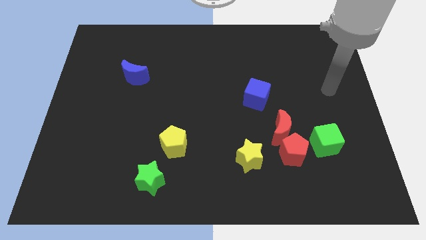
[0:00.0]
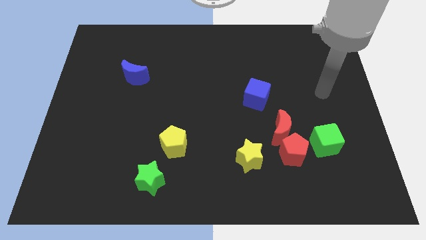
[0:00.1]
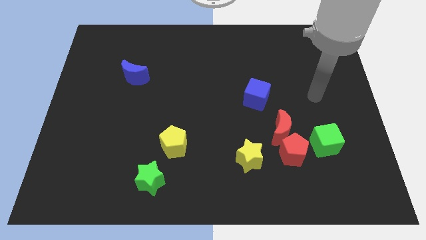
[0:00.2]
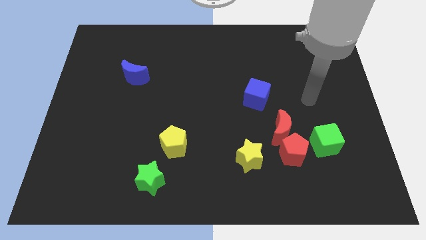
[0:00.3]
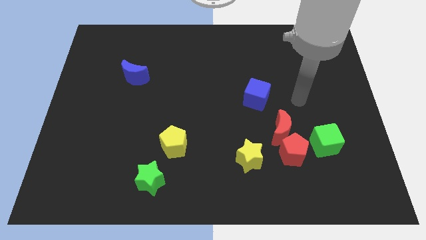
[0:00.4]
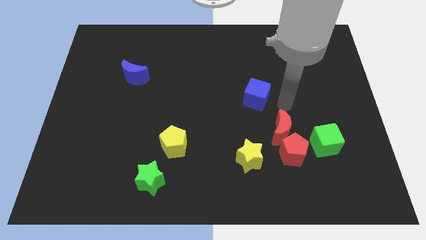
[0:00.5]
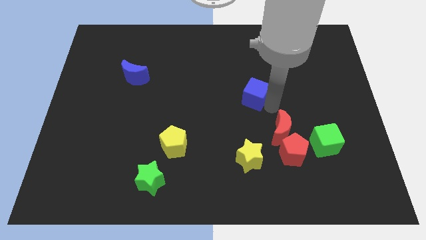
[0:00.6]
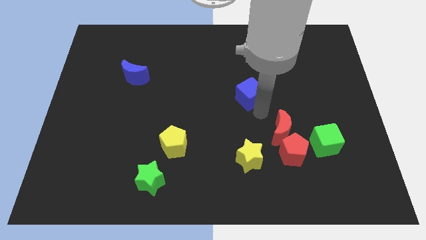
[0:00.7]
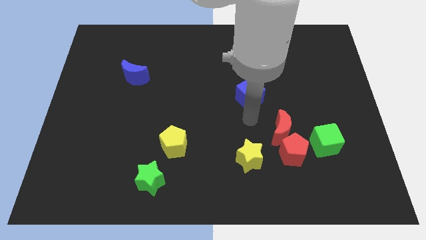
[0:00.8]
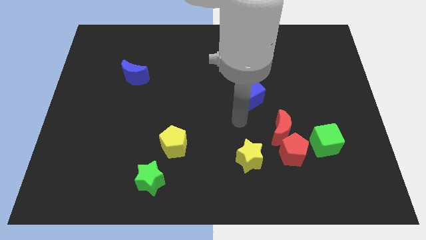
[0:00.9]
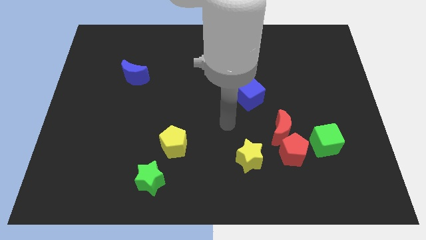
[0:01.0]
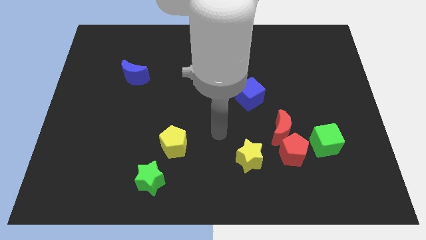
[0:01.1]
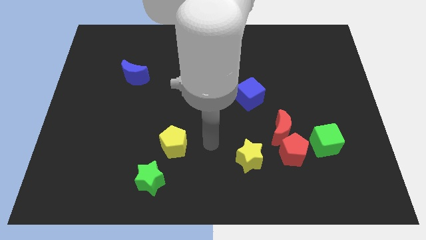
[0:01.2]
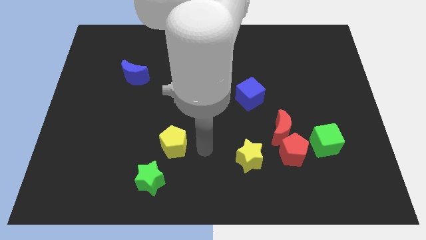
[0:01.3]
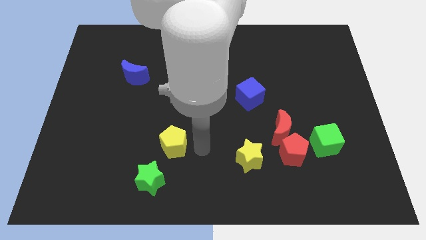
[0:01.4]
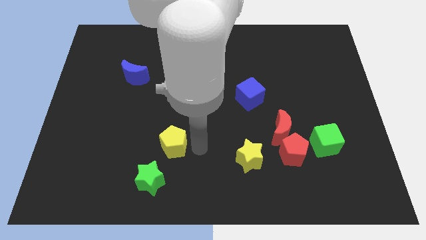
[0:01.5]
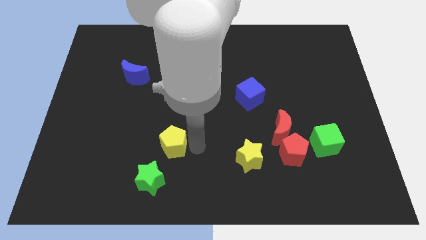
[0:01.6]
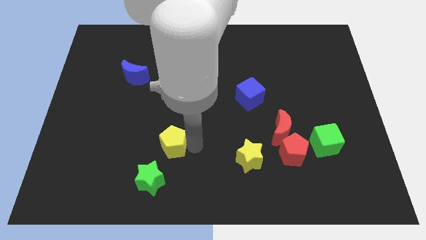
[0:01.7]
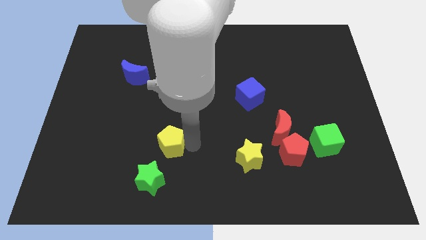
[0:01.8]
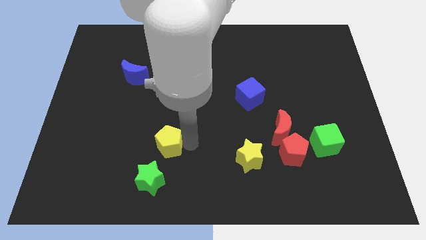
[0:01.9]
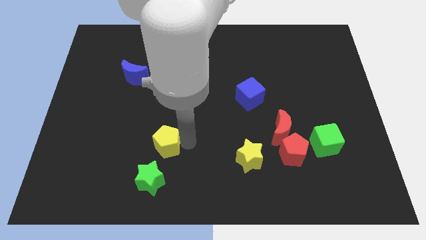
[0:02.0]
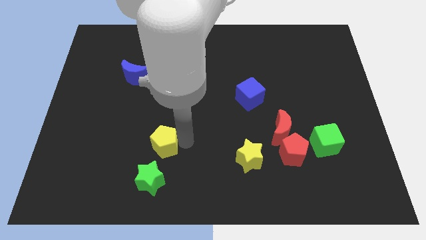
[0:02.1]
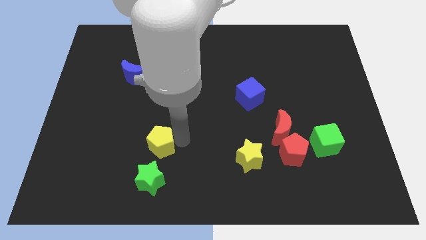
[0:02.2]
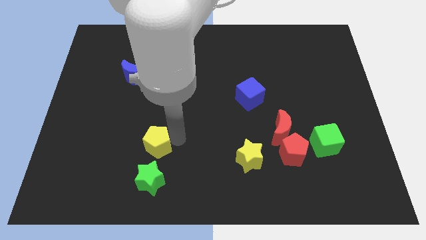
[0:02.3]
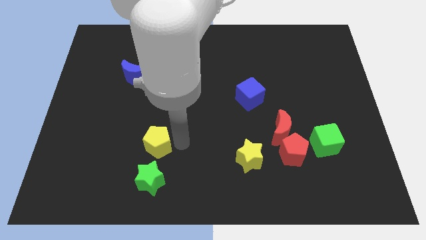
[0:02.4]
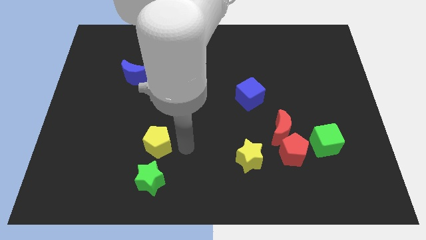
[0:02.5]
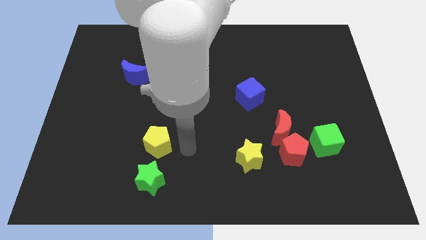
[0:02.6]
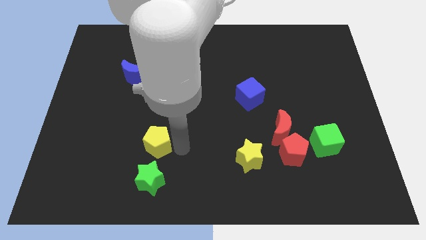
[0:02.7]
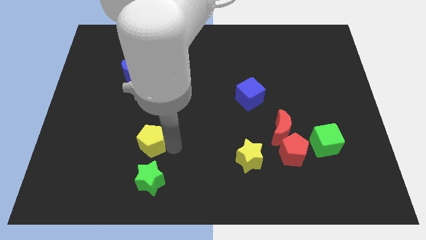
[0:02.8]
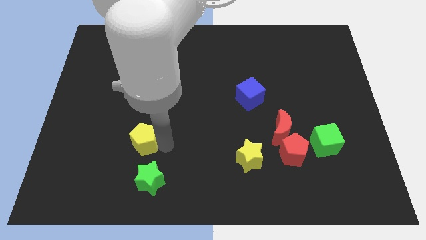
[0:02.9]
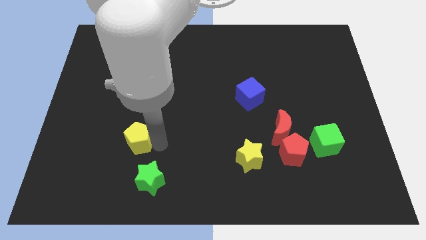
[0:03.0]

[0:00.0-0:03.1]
slide the yellow pentagon a little left

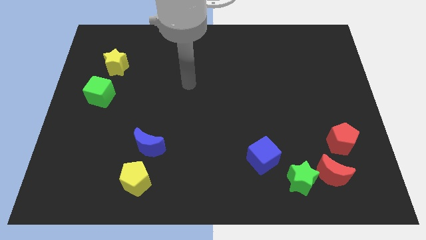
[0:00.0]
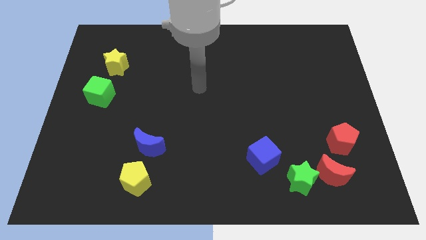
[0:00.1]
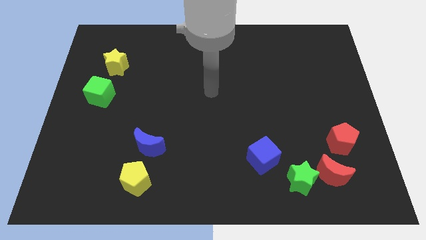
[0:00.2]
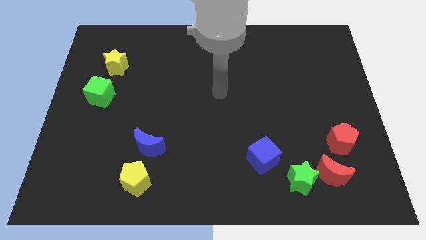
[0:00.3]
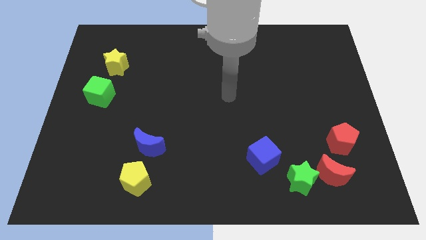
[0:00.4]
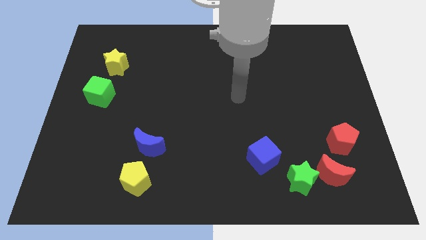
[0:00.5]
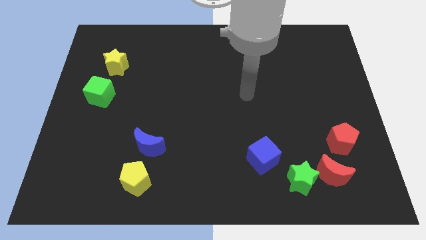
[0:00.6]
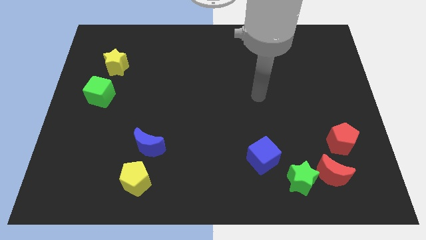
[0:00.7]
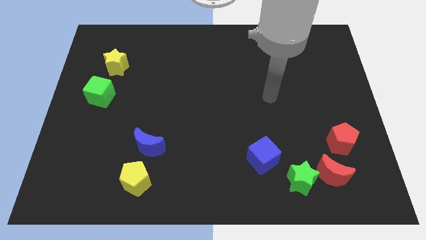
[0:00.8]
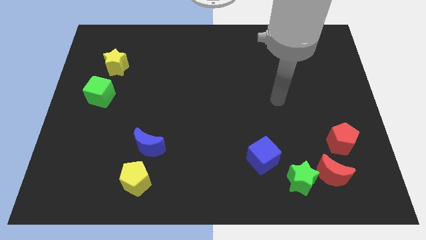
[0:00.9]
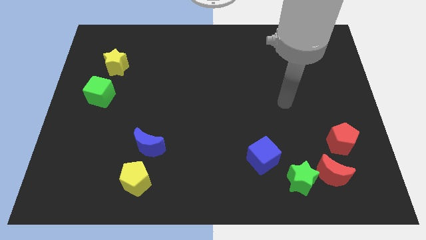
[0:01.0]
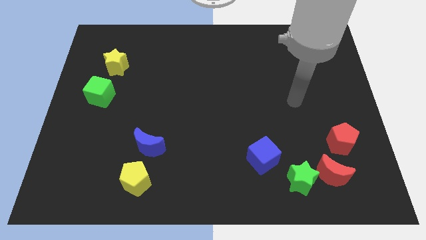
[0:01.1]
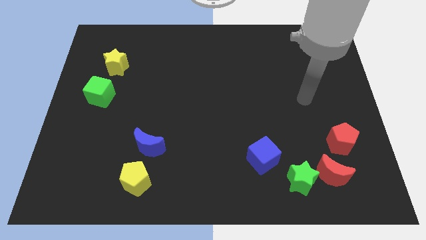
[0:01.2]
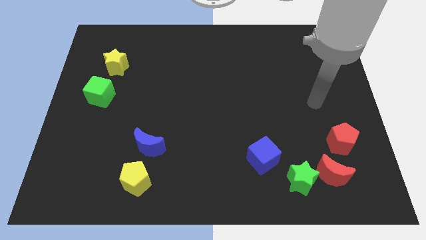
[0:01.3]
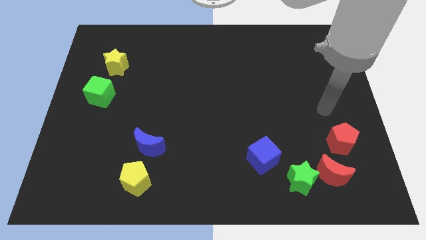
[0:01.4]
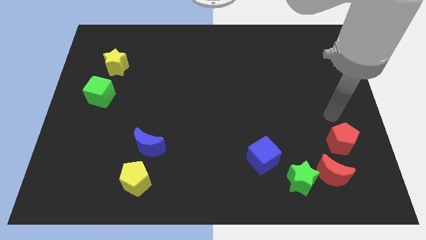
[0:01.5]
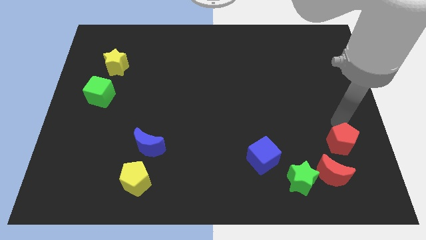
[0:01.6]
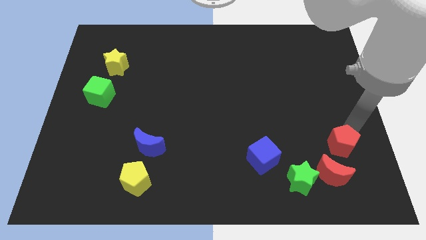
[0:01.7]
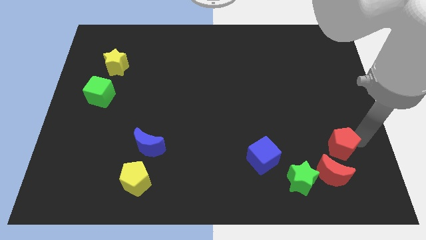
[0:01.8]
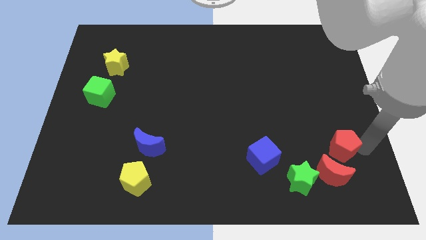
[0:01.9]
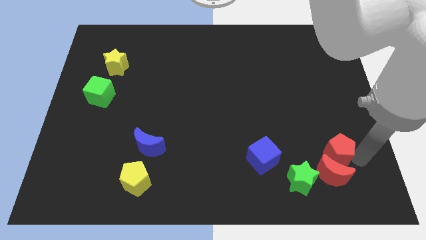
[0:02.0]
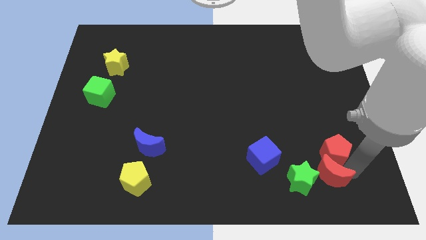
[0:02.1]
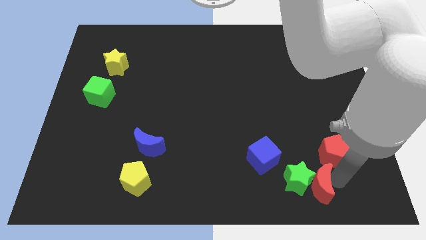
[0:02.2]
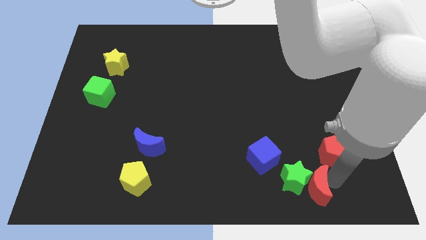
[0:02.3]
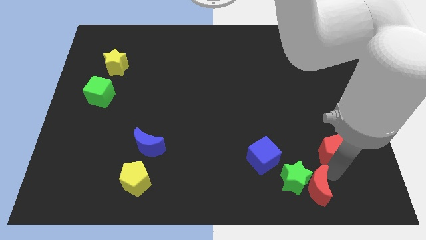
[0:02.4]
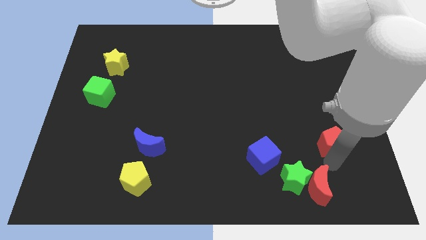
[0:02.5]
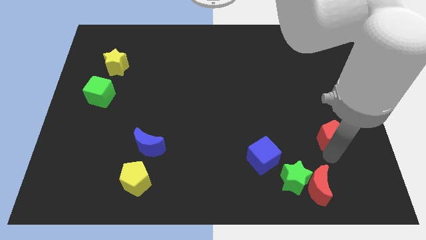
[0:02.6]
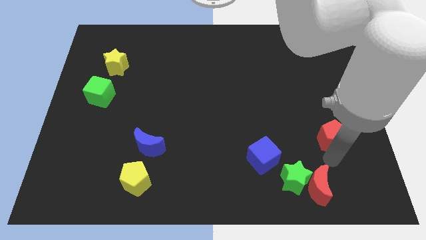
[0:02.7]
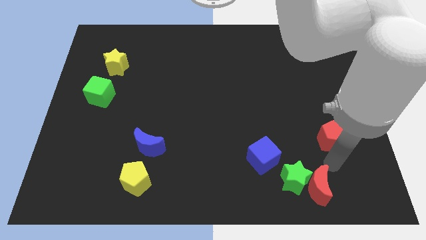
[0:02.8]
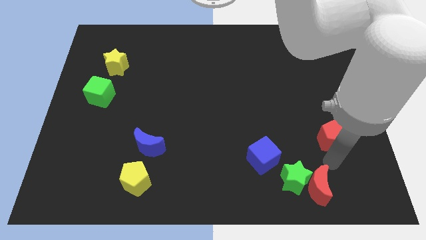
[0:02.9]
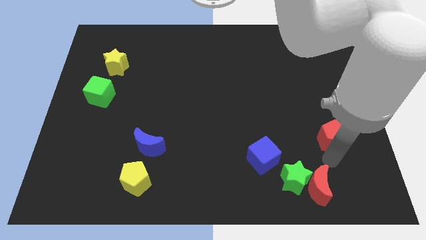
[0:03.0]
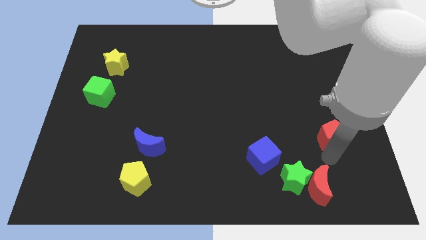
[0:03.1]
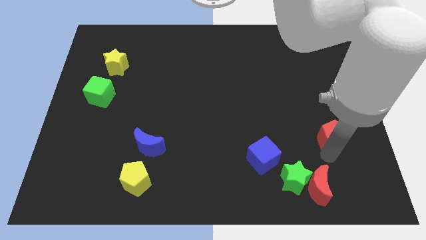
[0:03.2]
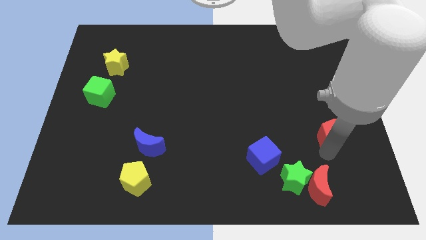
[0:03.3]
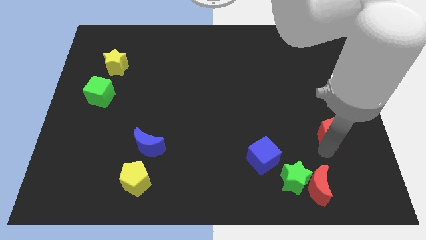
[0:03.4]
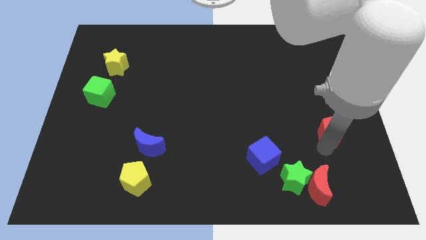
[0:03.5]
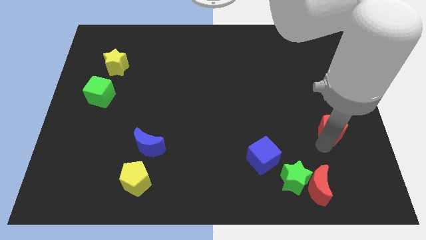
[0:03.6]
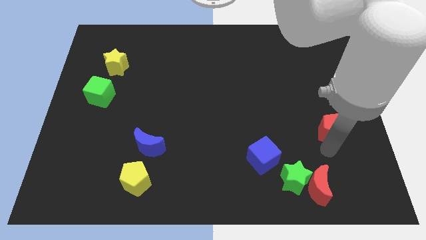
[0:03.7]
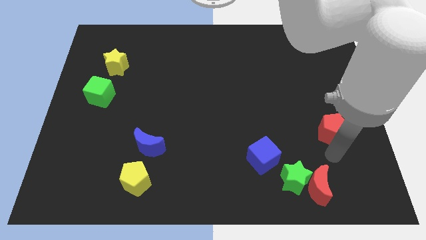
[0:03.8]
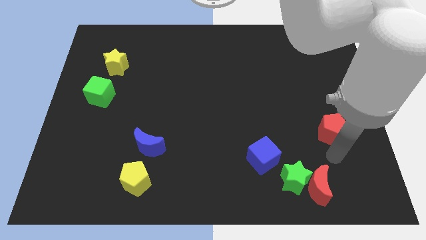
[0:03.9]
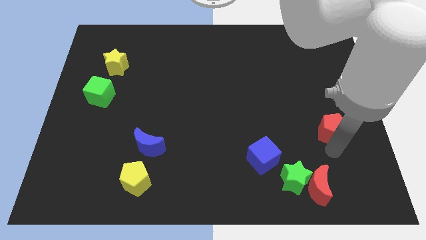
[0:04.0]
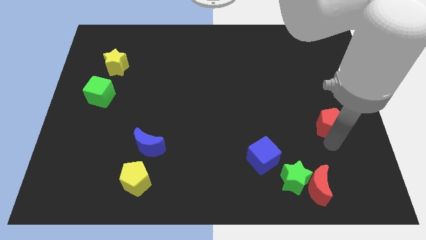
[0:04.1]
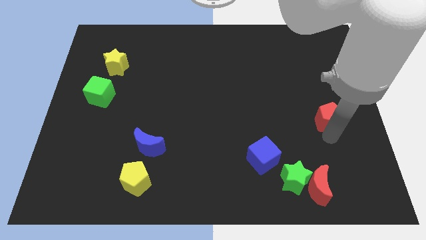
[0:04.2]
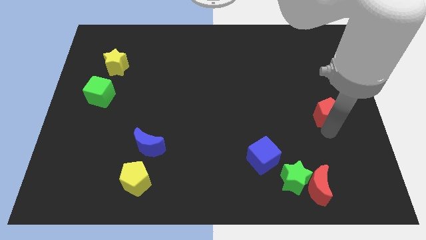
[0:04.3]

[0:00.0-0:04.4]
push the red pentagon somewhat up

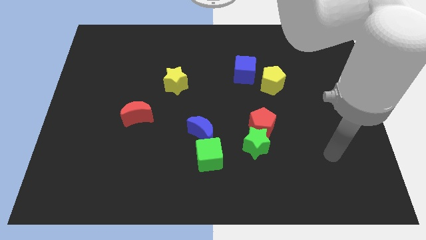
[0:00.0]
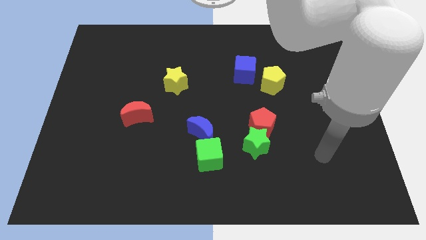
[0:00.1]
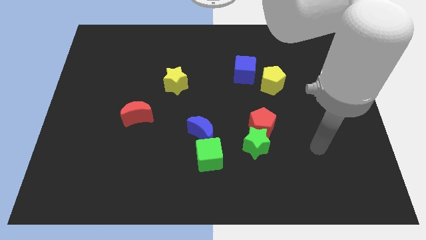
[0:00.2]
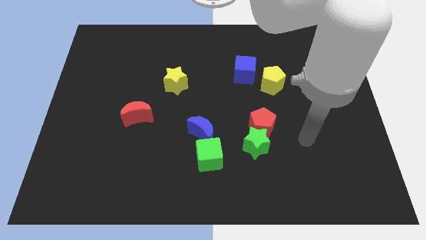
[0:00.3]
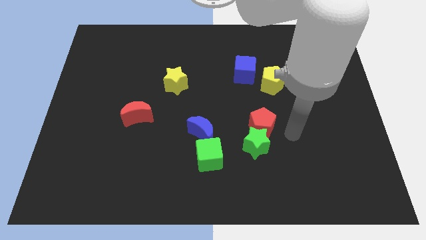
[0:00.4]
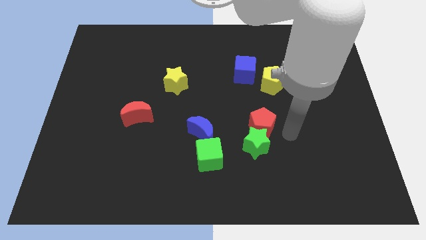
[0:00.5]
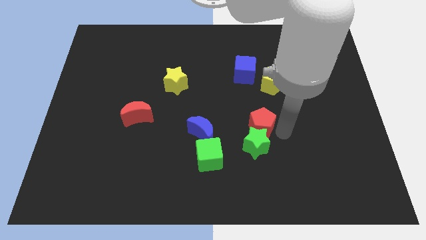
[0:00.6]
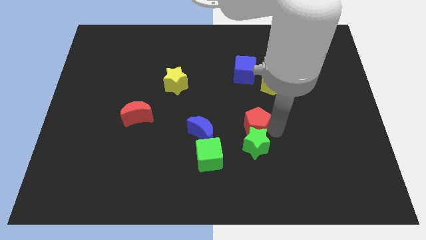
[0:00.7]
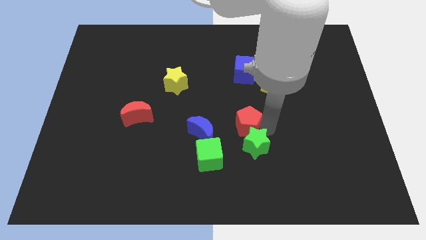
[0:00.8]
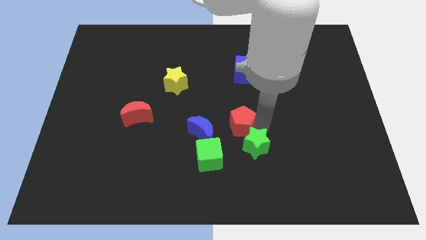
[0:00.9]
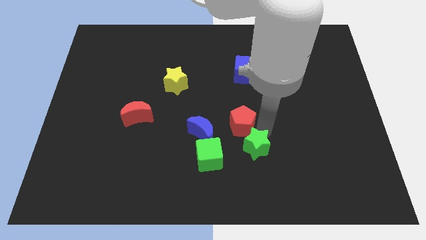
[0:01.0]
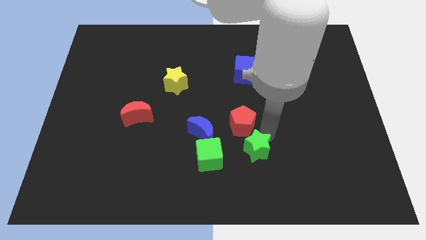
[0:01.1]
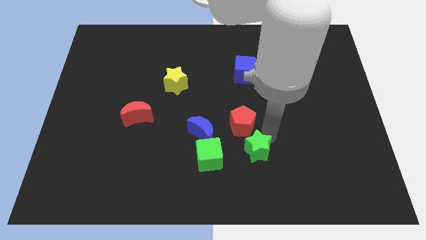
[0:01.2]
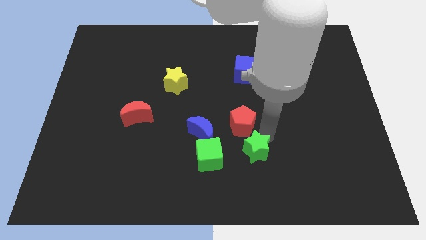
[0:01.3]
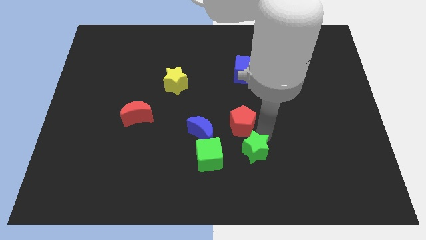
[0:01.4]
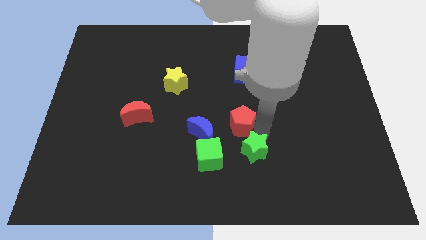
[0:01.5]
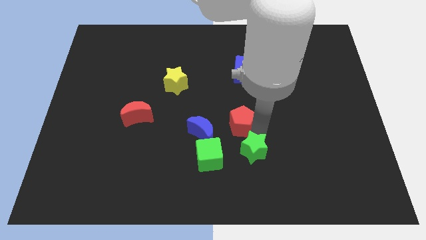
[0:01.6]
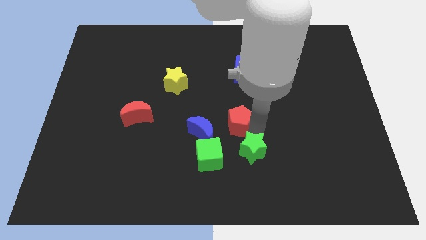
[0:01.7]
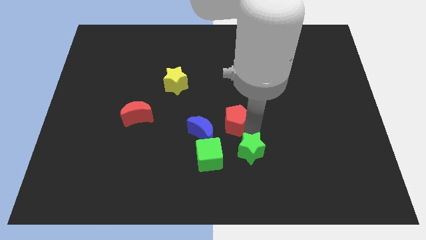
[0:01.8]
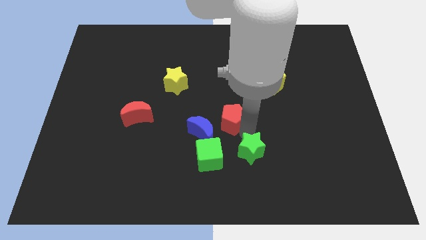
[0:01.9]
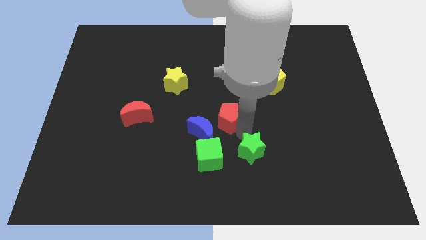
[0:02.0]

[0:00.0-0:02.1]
move the red pentagon to the left somewhat
